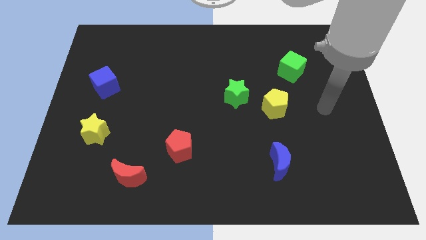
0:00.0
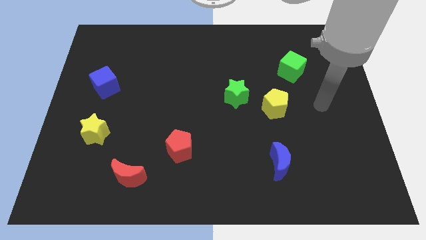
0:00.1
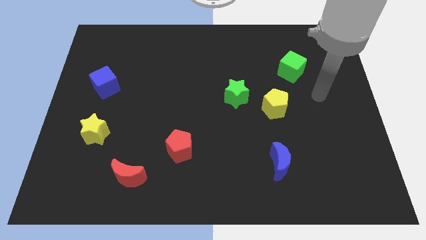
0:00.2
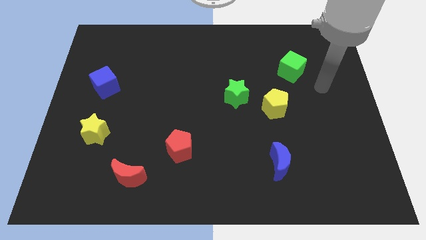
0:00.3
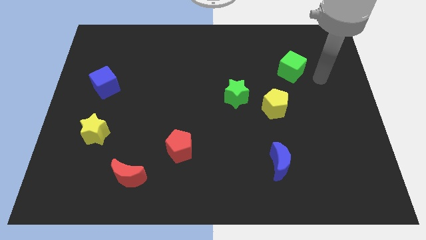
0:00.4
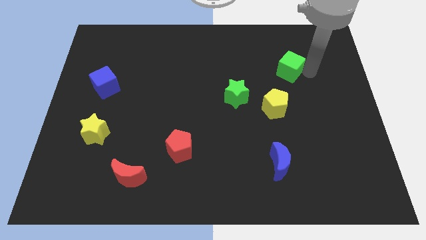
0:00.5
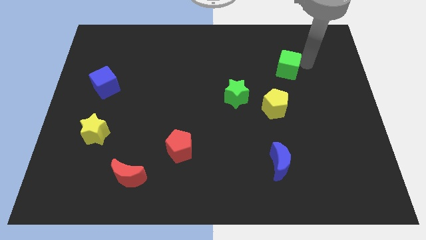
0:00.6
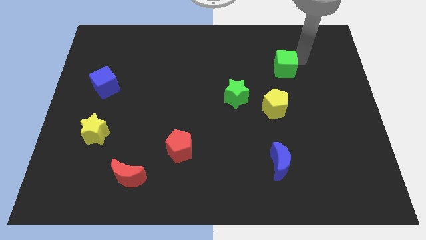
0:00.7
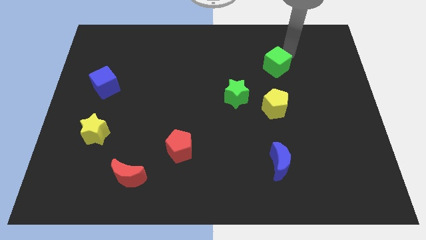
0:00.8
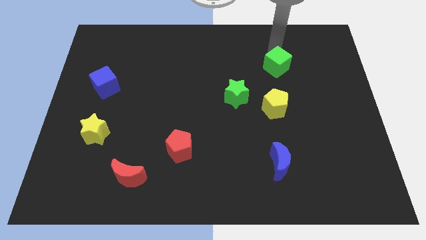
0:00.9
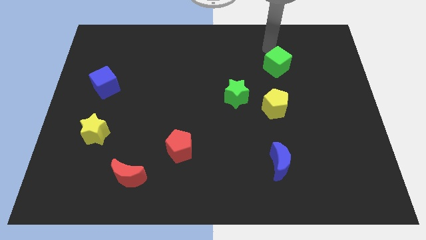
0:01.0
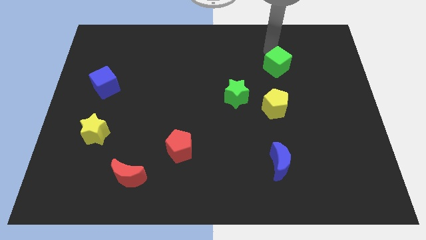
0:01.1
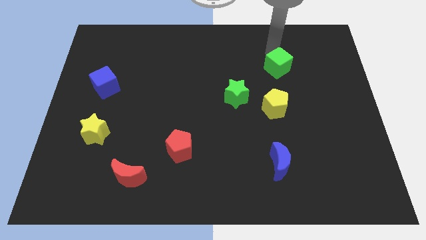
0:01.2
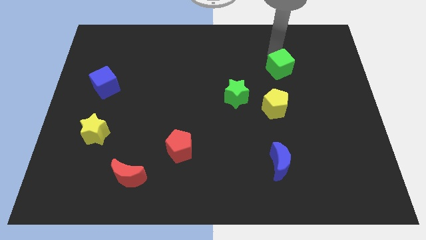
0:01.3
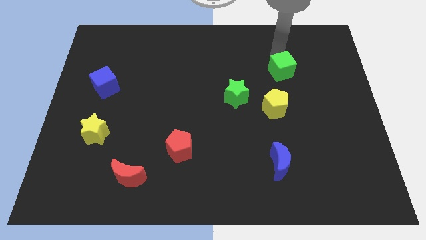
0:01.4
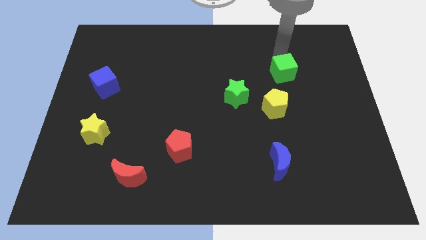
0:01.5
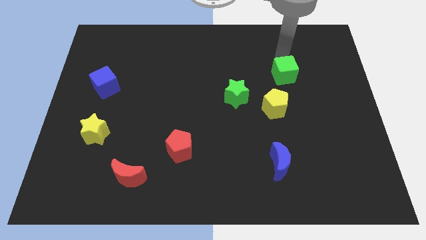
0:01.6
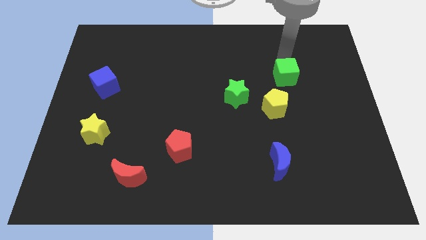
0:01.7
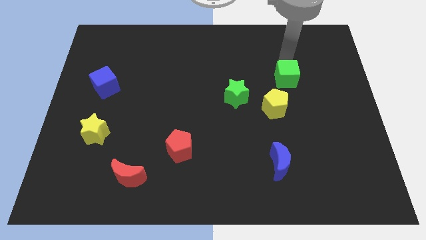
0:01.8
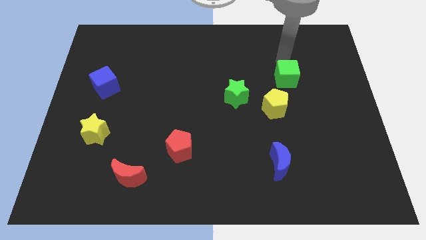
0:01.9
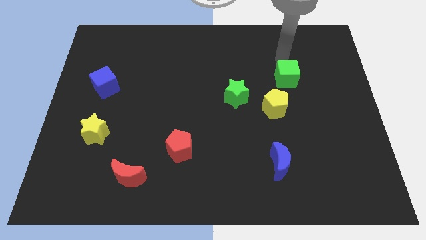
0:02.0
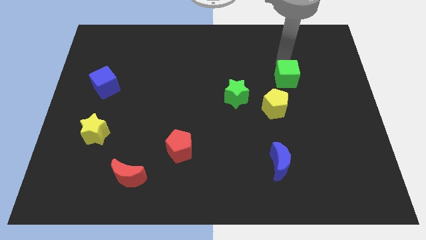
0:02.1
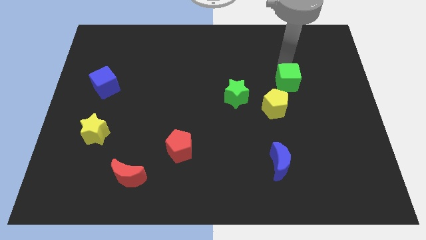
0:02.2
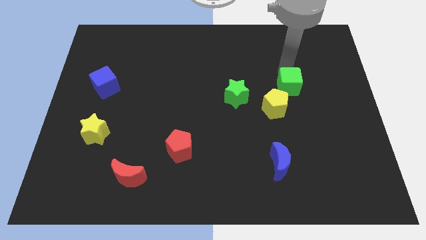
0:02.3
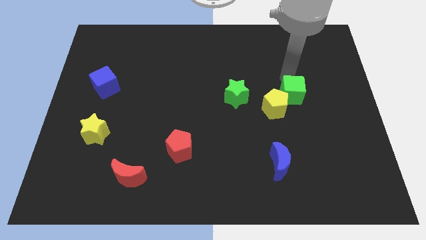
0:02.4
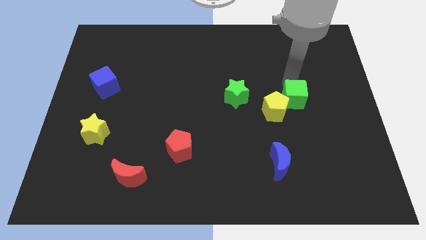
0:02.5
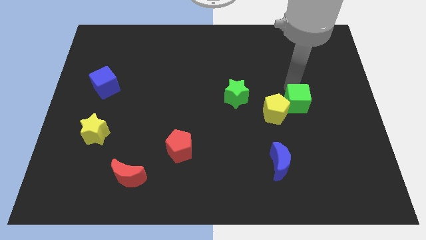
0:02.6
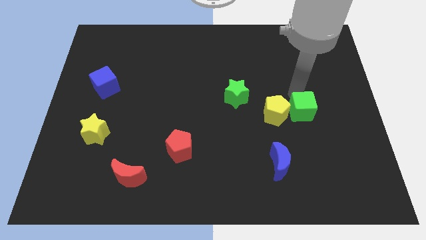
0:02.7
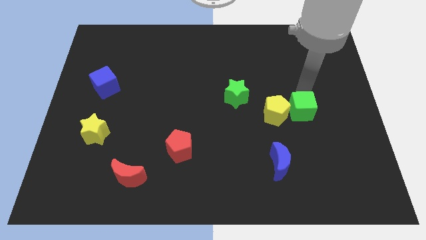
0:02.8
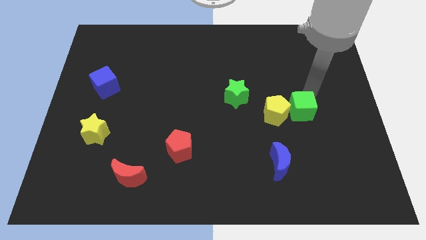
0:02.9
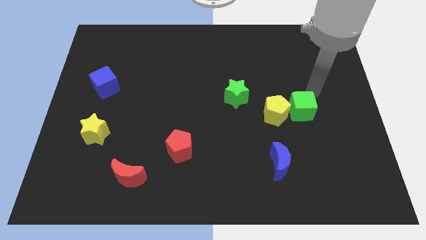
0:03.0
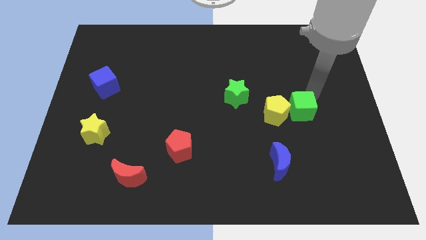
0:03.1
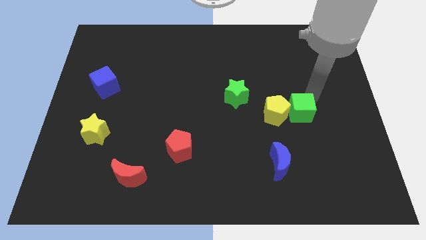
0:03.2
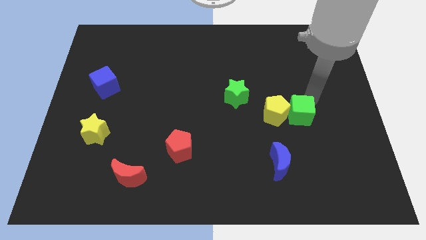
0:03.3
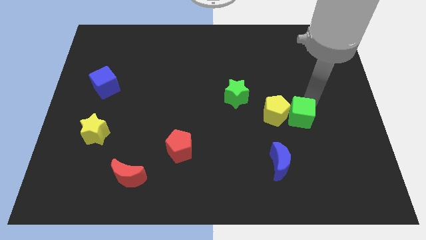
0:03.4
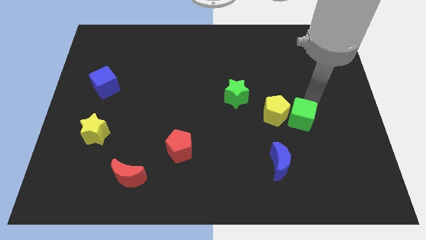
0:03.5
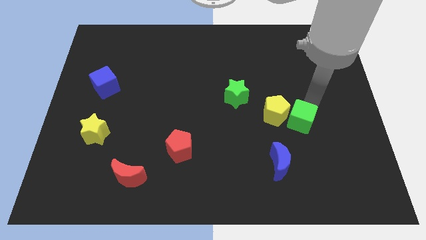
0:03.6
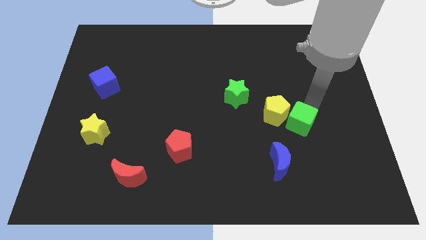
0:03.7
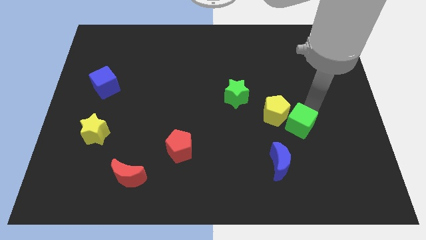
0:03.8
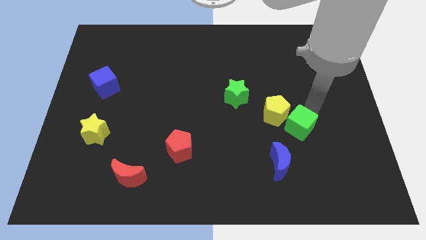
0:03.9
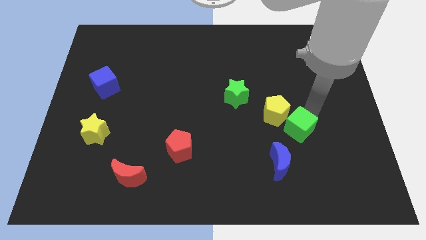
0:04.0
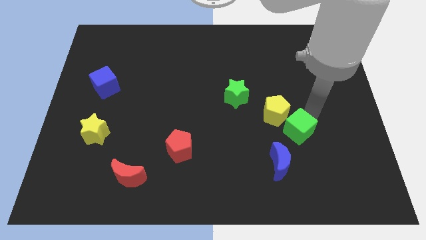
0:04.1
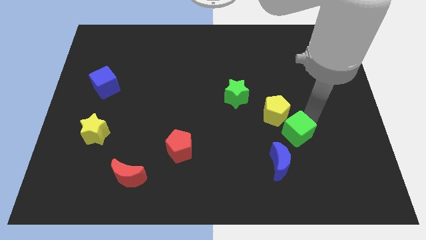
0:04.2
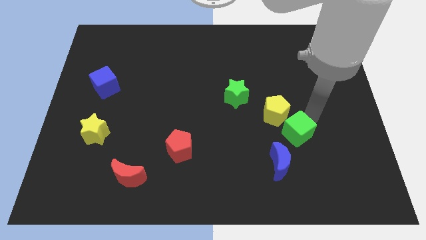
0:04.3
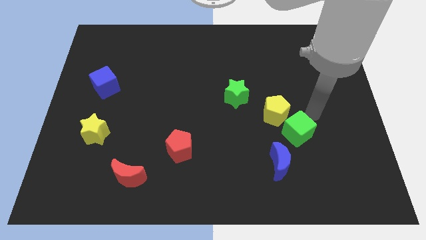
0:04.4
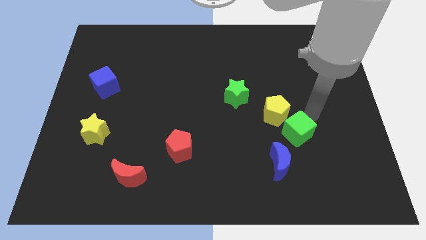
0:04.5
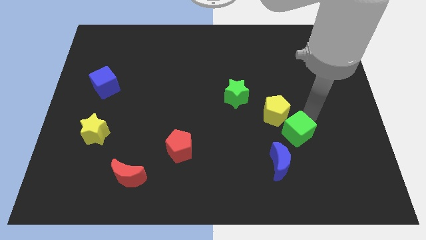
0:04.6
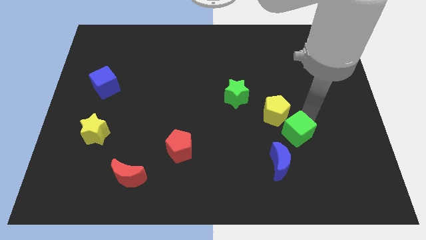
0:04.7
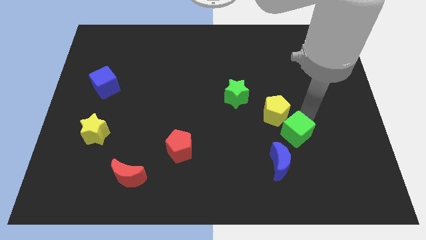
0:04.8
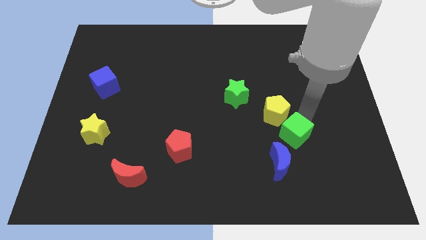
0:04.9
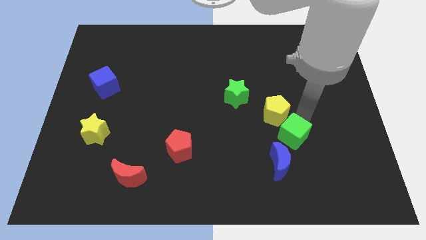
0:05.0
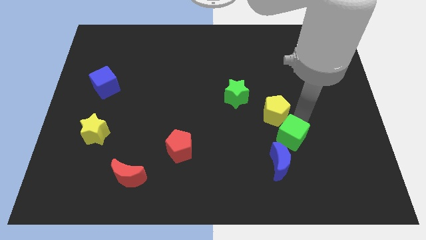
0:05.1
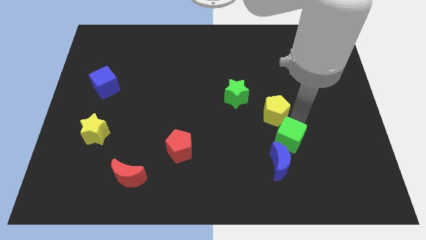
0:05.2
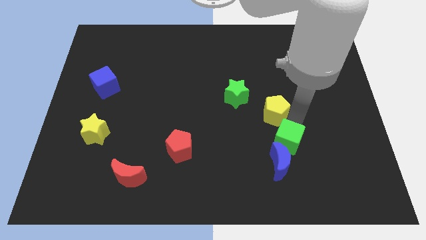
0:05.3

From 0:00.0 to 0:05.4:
put the green cube to the blue moon

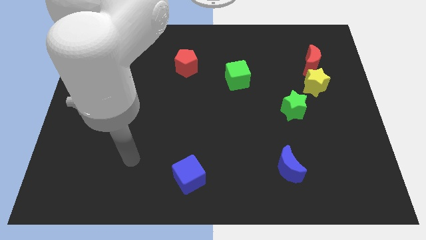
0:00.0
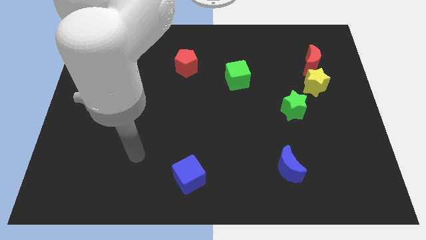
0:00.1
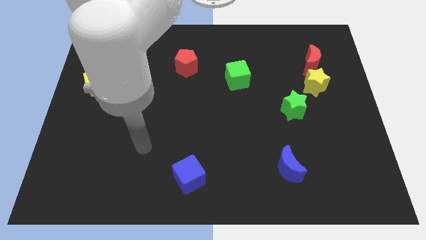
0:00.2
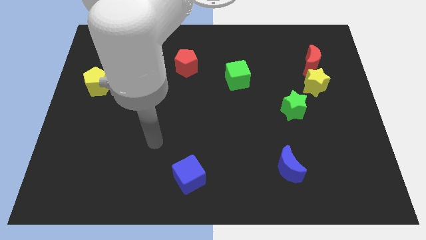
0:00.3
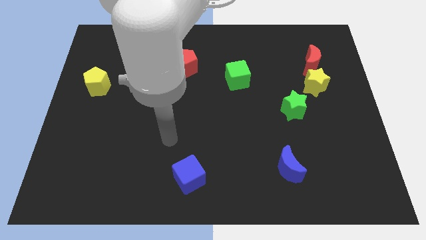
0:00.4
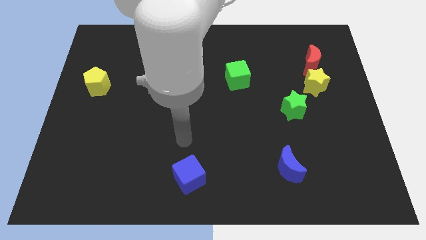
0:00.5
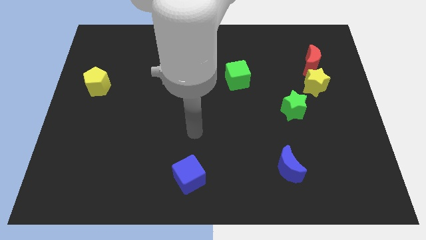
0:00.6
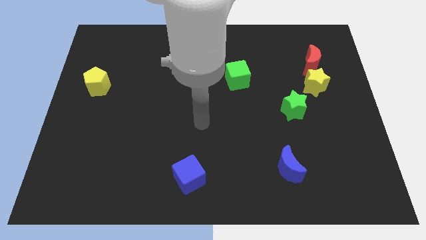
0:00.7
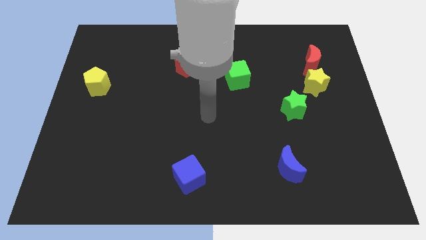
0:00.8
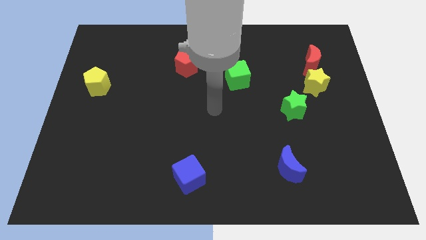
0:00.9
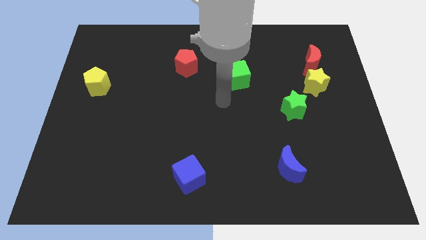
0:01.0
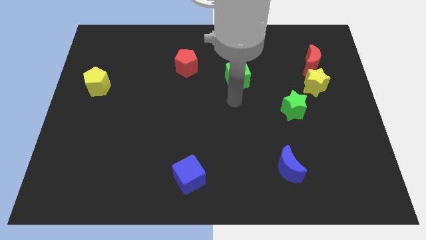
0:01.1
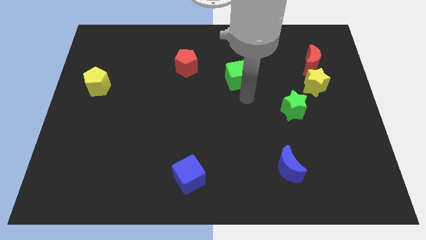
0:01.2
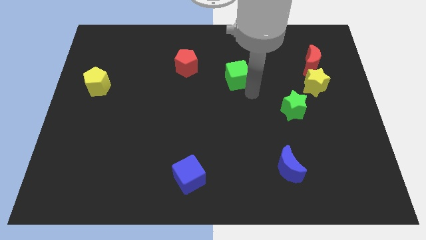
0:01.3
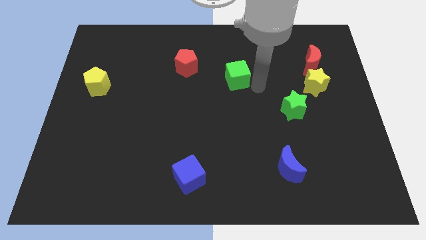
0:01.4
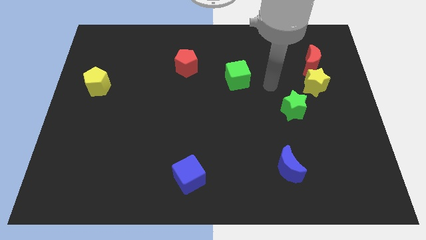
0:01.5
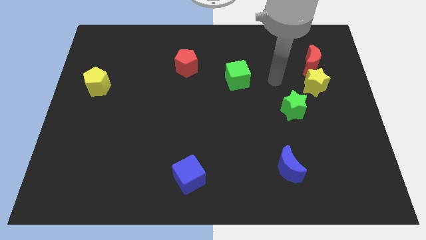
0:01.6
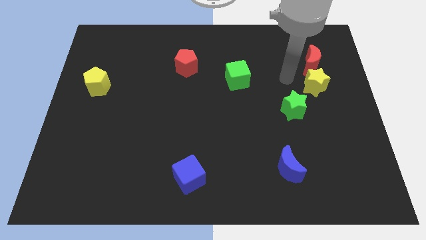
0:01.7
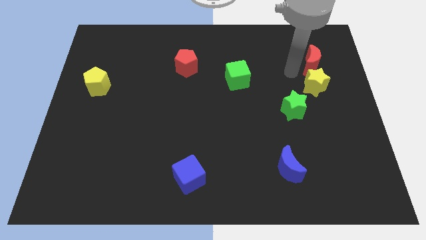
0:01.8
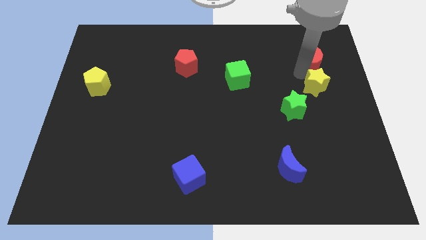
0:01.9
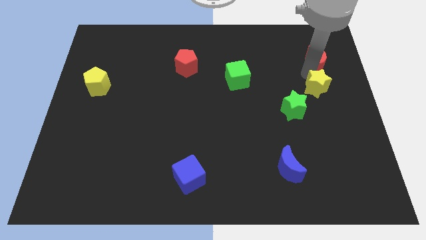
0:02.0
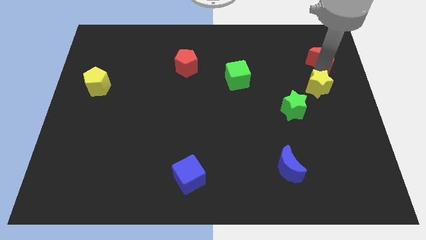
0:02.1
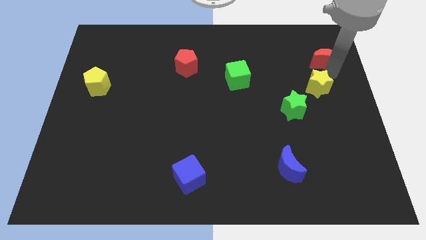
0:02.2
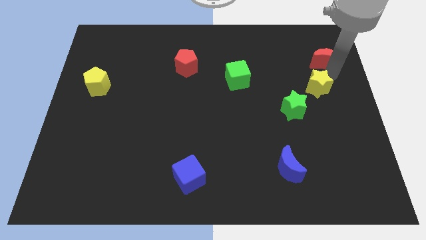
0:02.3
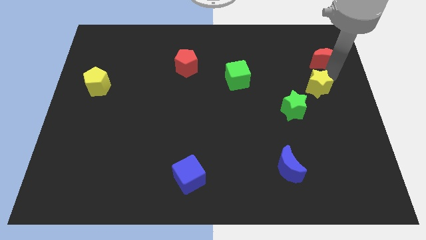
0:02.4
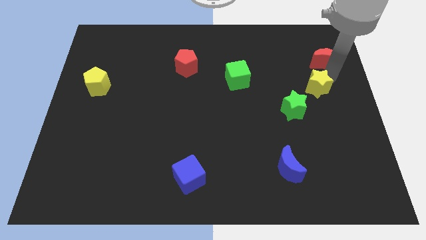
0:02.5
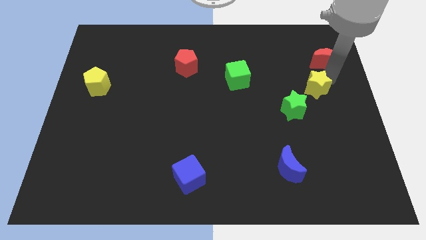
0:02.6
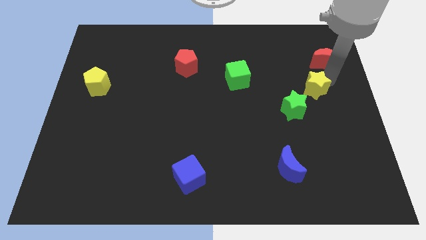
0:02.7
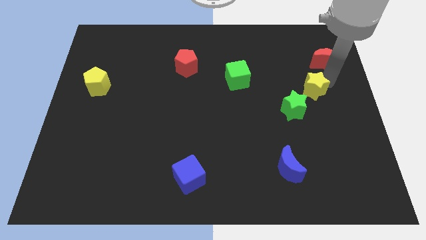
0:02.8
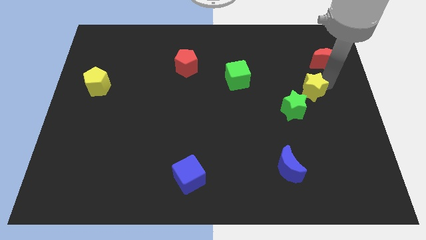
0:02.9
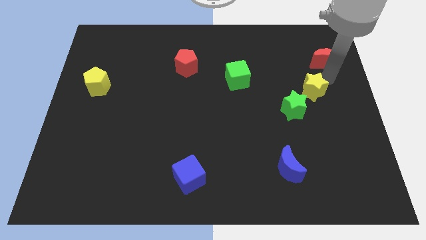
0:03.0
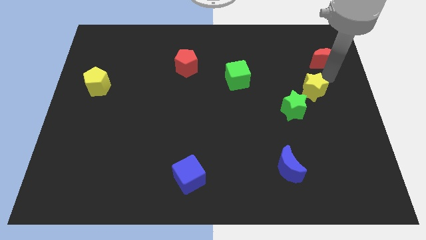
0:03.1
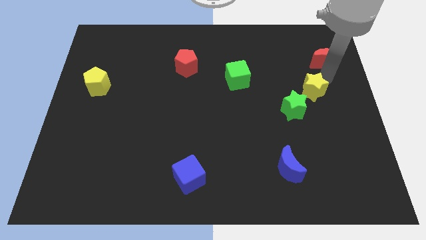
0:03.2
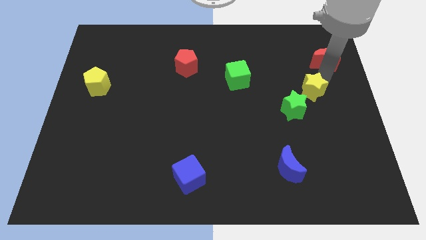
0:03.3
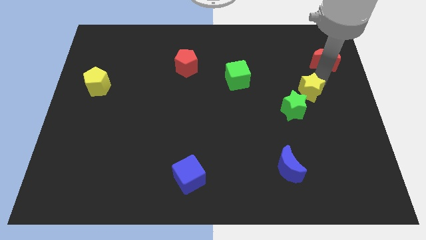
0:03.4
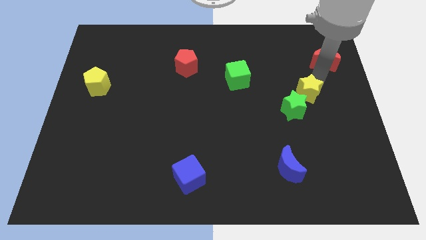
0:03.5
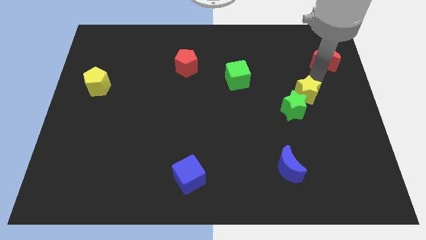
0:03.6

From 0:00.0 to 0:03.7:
put the yellow star to the green star
